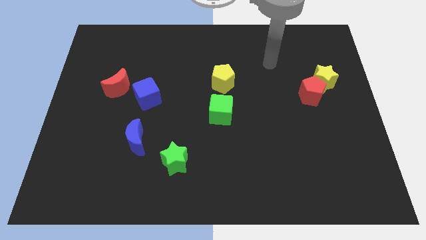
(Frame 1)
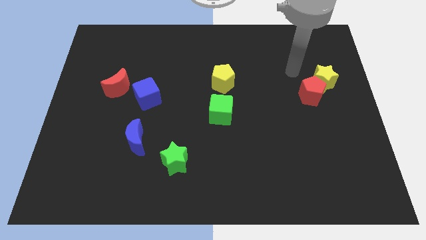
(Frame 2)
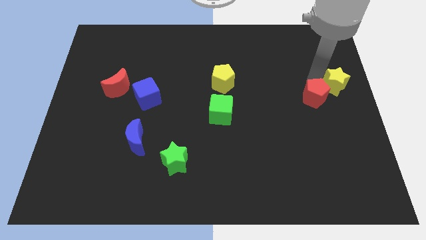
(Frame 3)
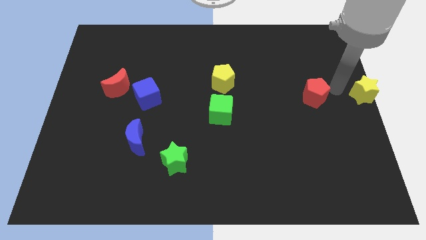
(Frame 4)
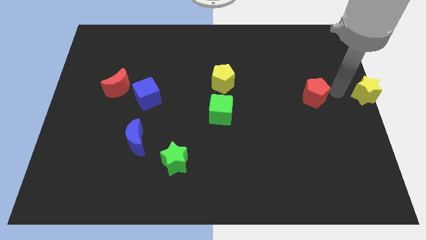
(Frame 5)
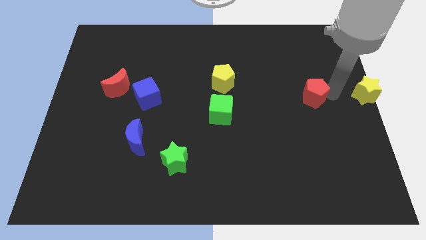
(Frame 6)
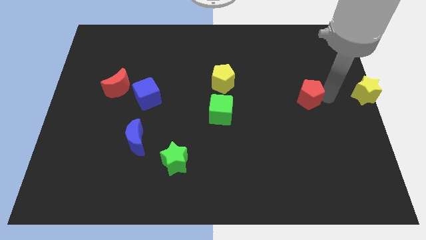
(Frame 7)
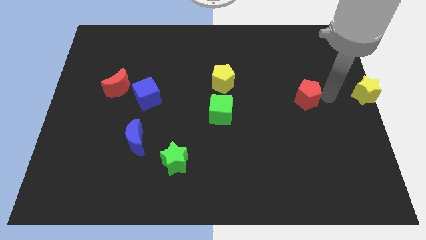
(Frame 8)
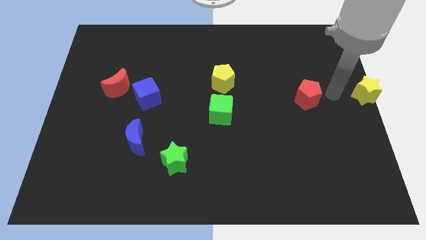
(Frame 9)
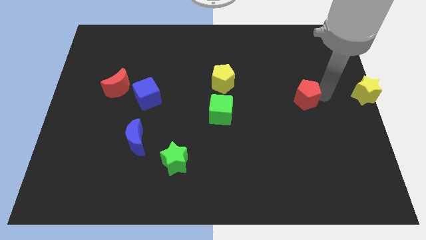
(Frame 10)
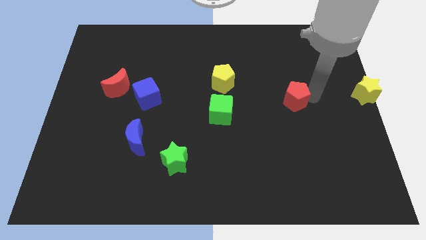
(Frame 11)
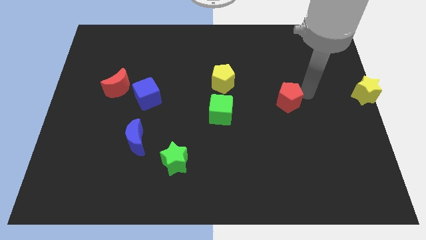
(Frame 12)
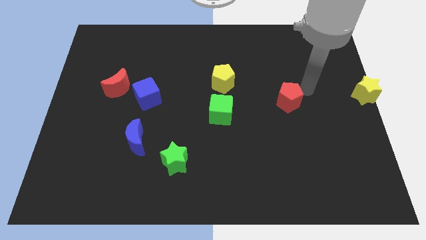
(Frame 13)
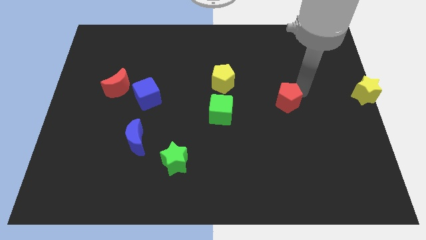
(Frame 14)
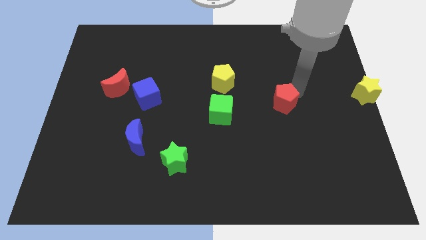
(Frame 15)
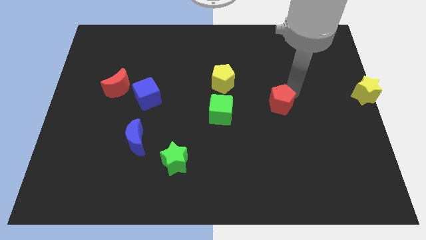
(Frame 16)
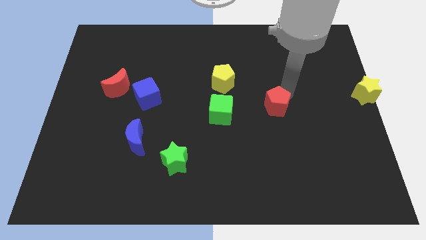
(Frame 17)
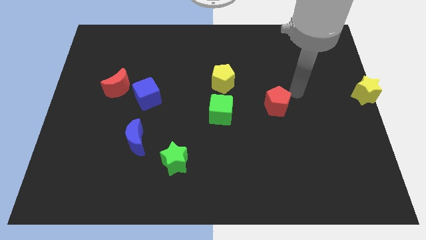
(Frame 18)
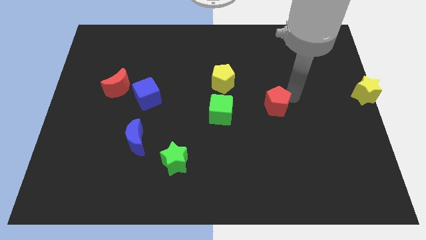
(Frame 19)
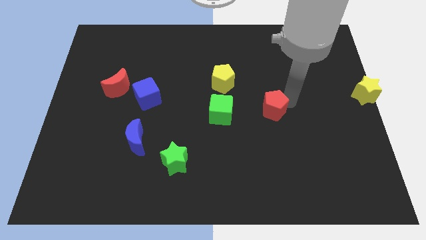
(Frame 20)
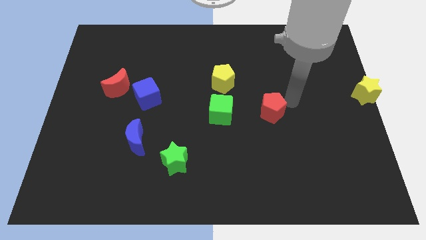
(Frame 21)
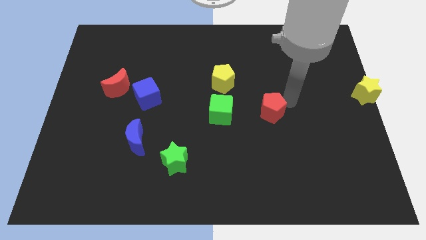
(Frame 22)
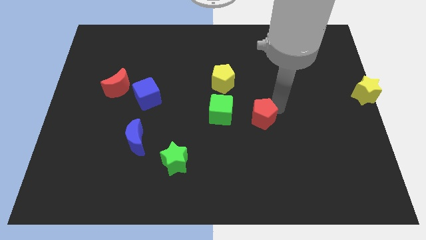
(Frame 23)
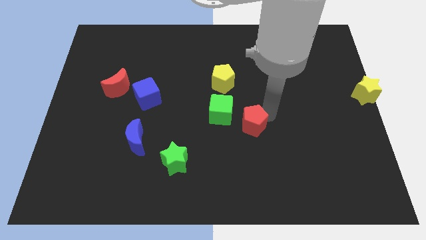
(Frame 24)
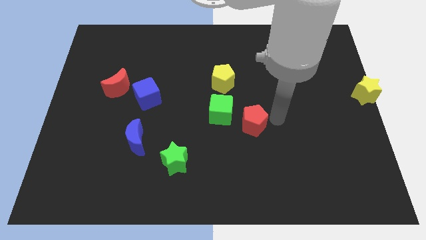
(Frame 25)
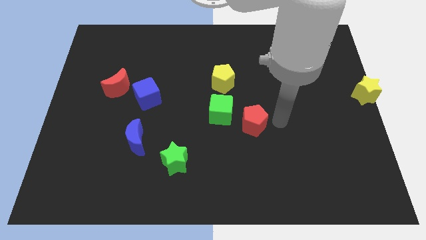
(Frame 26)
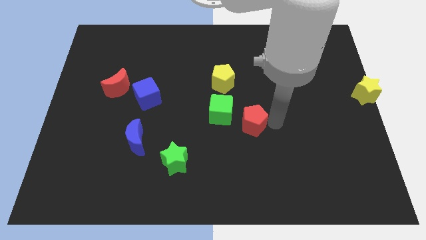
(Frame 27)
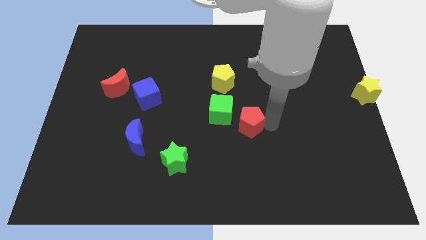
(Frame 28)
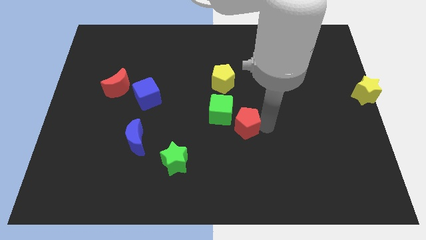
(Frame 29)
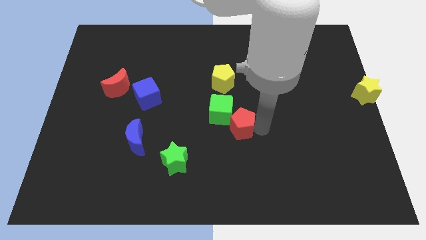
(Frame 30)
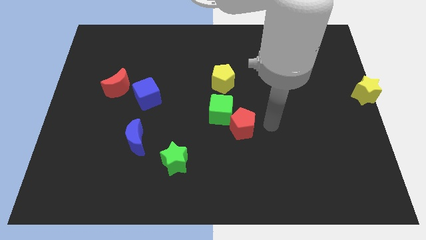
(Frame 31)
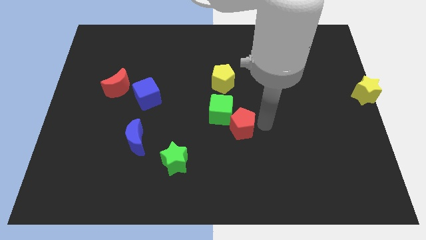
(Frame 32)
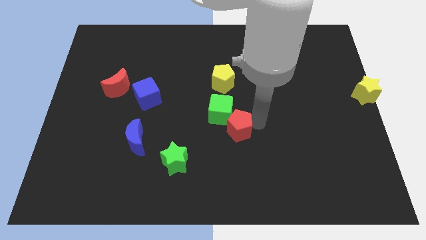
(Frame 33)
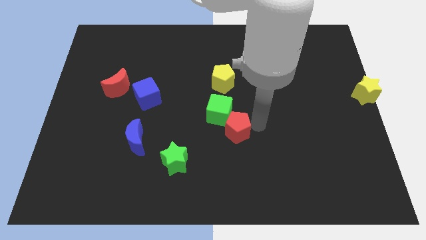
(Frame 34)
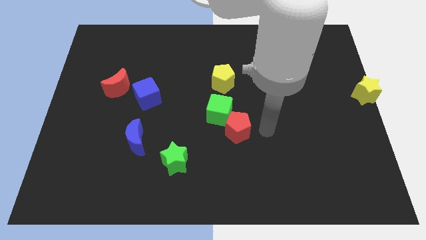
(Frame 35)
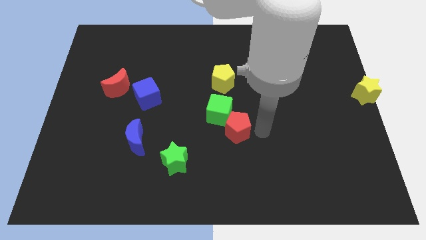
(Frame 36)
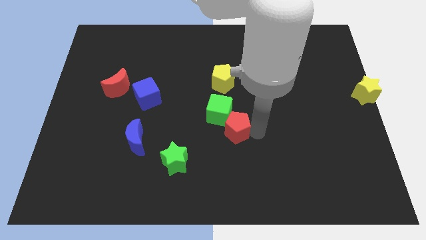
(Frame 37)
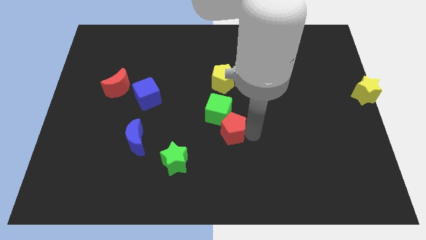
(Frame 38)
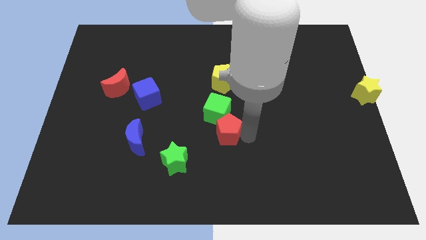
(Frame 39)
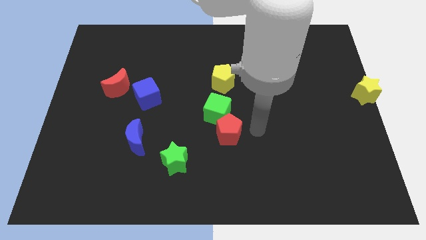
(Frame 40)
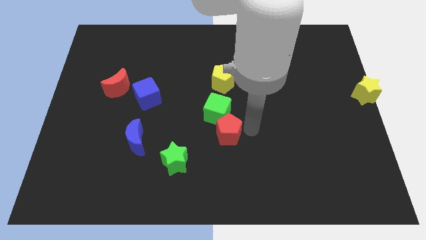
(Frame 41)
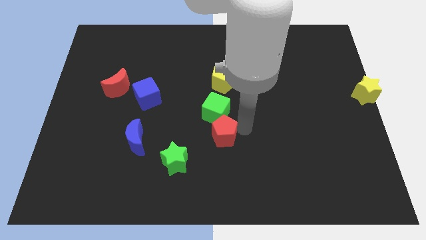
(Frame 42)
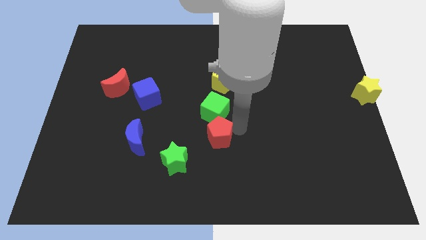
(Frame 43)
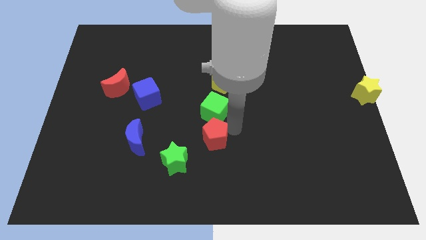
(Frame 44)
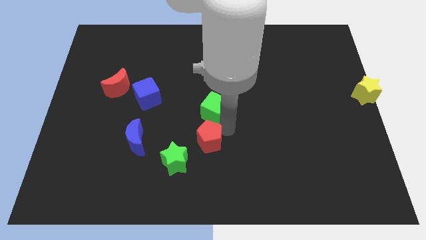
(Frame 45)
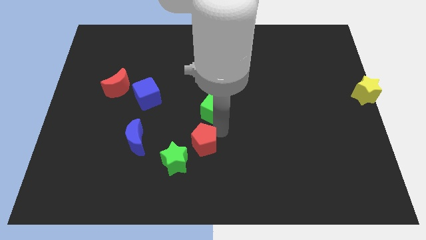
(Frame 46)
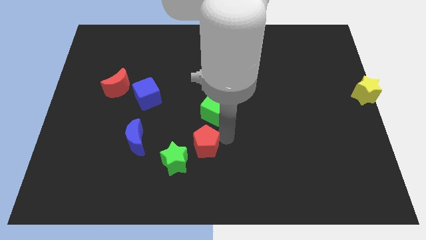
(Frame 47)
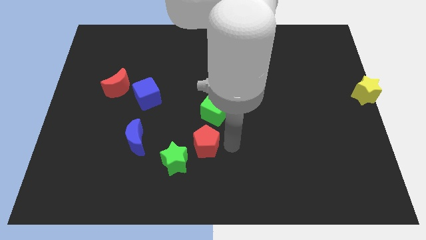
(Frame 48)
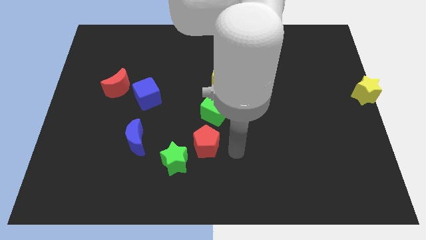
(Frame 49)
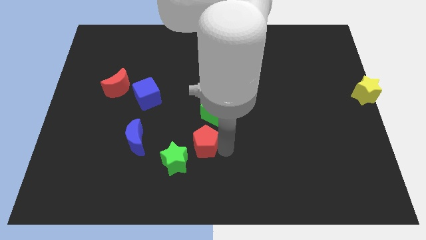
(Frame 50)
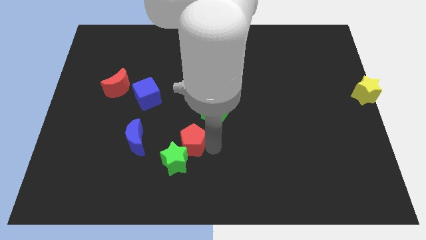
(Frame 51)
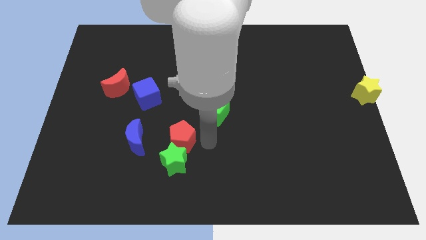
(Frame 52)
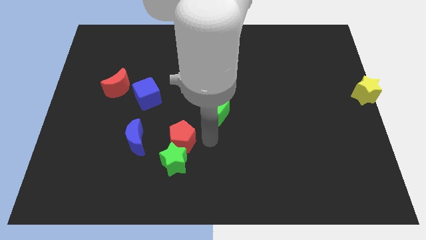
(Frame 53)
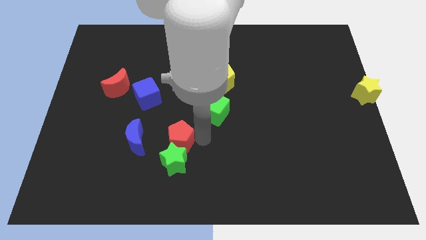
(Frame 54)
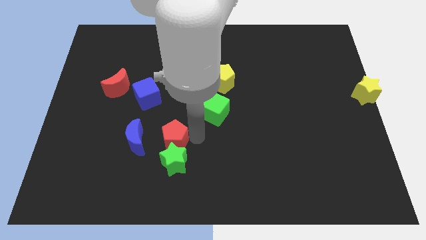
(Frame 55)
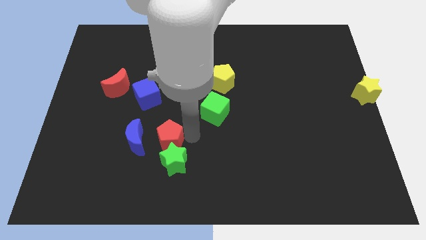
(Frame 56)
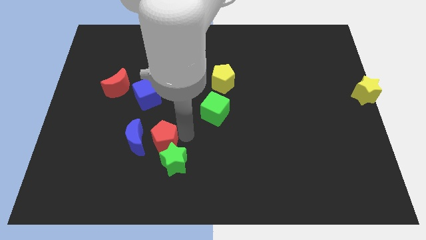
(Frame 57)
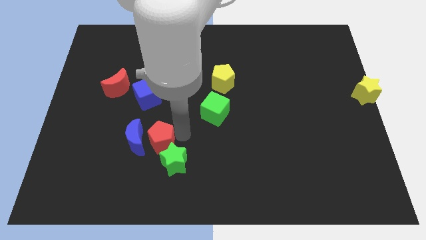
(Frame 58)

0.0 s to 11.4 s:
put the red pentagon next to the blue moon

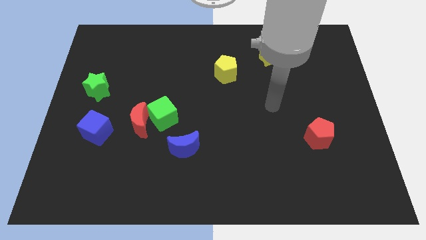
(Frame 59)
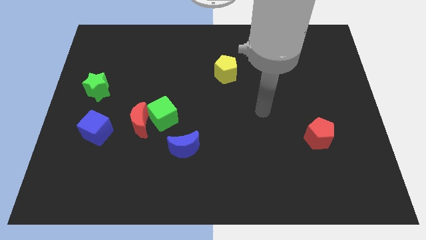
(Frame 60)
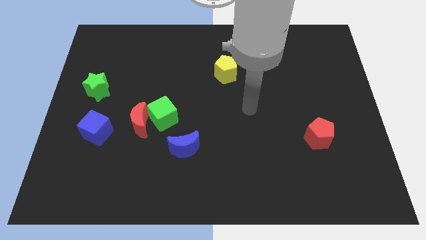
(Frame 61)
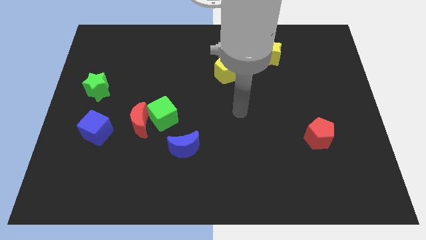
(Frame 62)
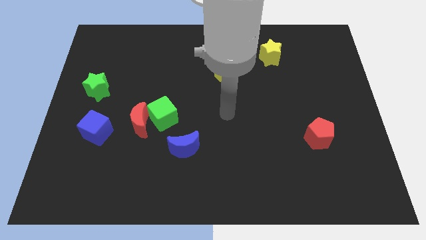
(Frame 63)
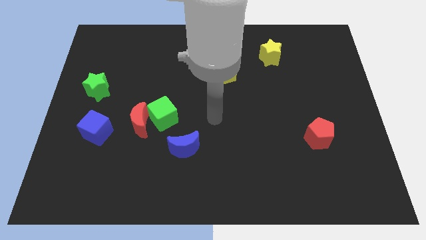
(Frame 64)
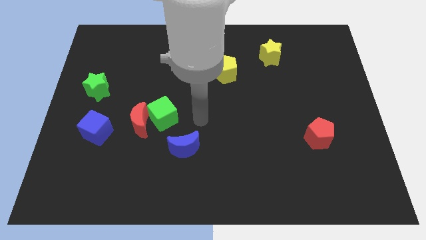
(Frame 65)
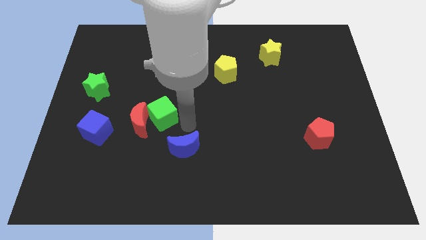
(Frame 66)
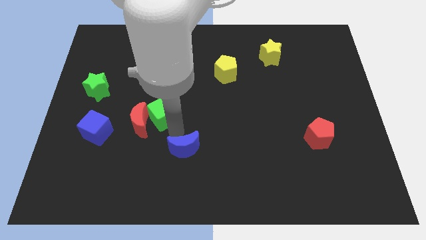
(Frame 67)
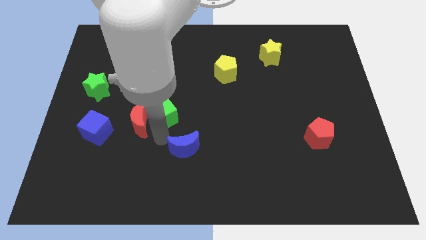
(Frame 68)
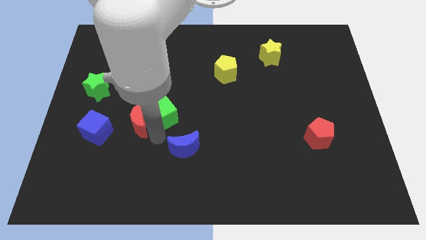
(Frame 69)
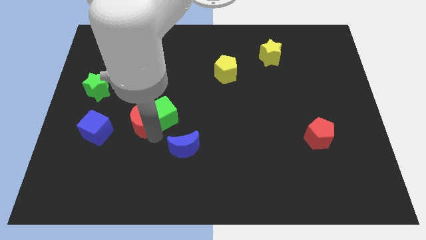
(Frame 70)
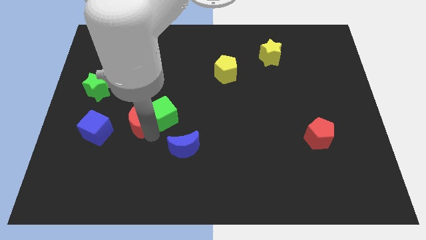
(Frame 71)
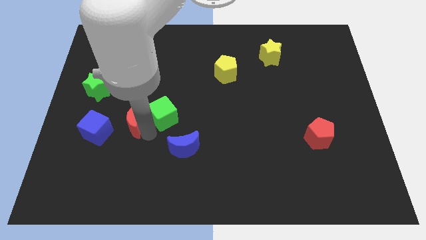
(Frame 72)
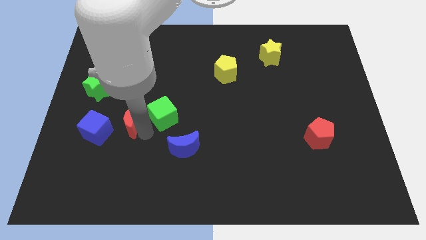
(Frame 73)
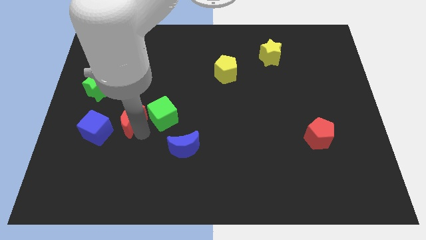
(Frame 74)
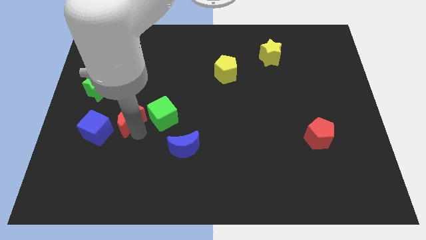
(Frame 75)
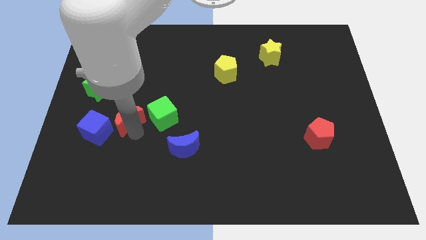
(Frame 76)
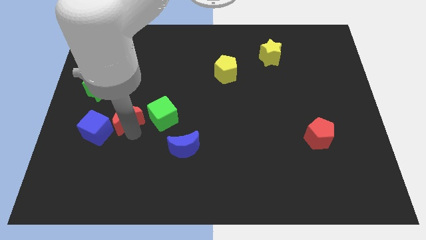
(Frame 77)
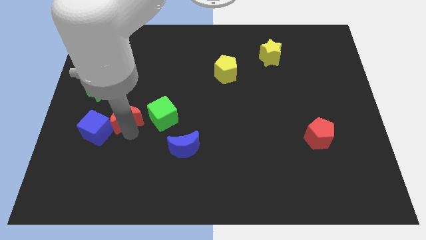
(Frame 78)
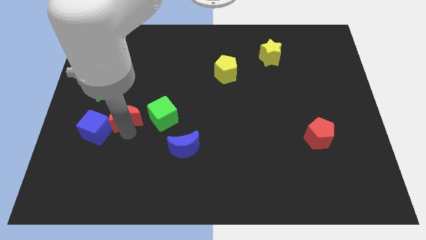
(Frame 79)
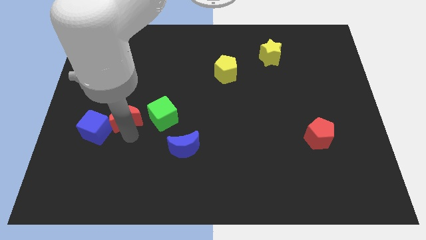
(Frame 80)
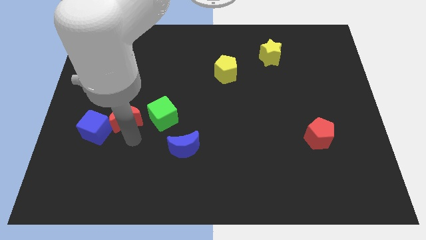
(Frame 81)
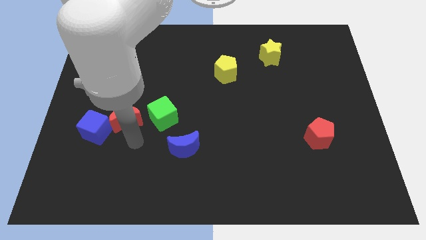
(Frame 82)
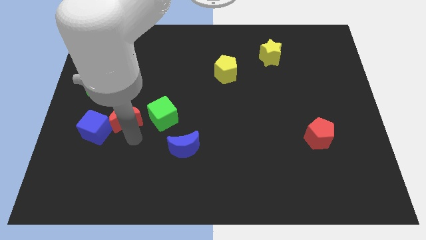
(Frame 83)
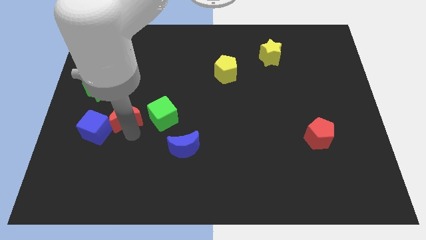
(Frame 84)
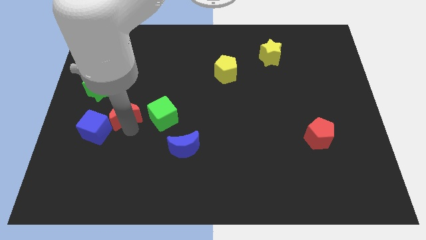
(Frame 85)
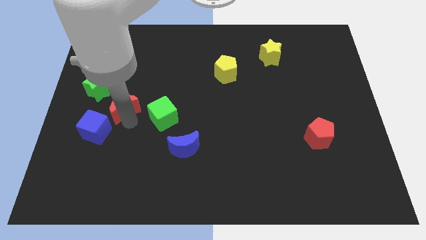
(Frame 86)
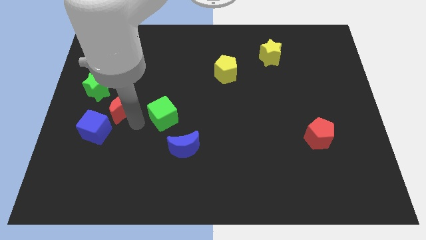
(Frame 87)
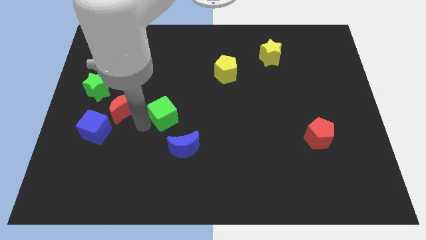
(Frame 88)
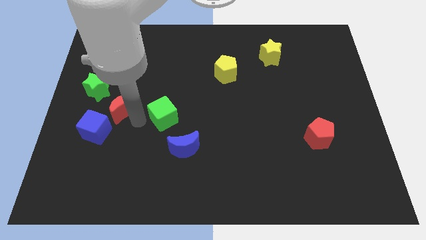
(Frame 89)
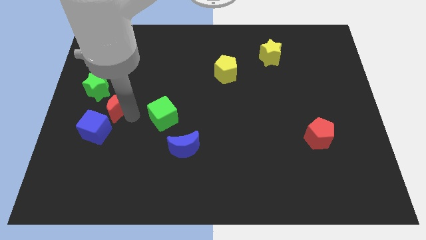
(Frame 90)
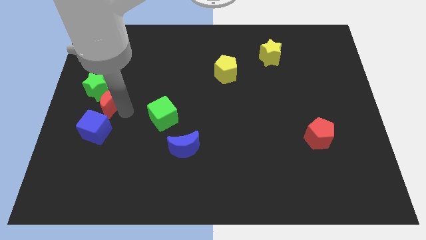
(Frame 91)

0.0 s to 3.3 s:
move the red moon to the green star
